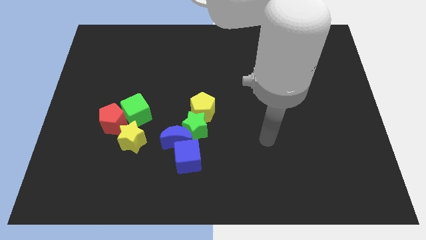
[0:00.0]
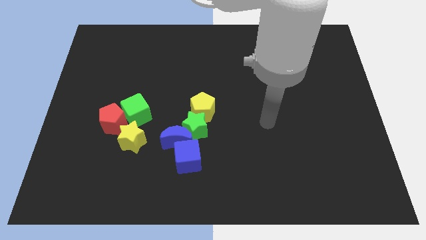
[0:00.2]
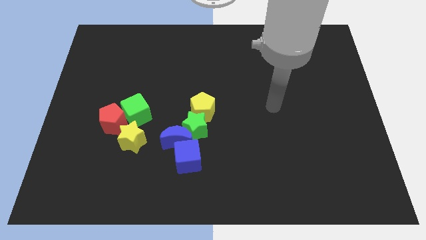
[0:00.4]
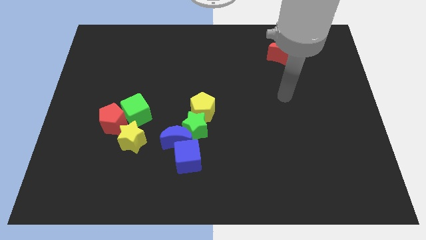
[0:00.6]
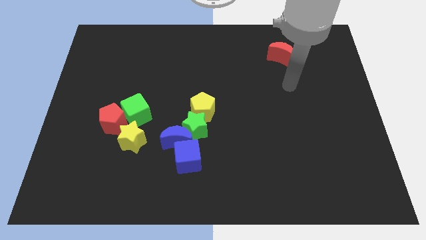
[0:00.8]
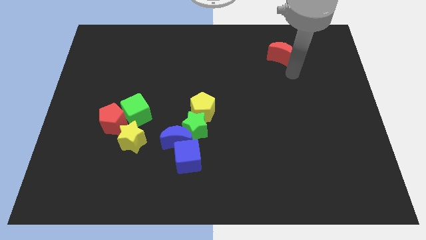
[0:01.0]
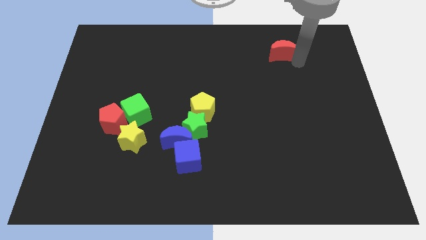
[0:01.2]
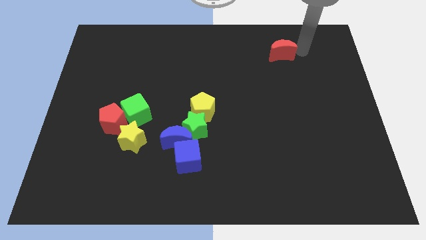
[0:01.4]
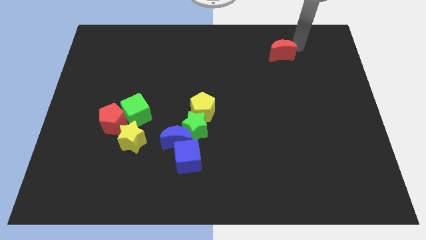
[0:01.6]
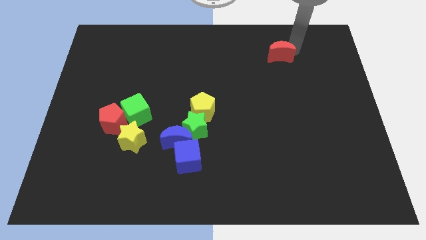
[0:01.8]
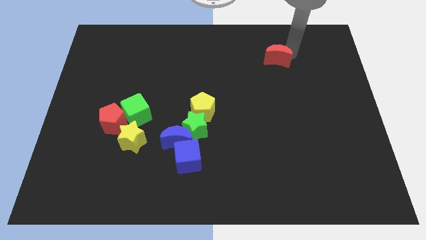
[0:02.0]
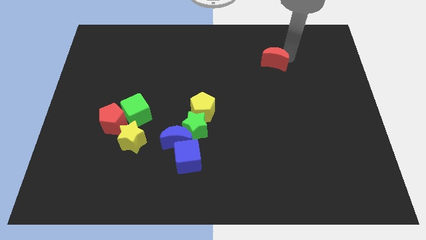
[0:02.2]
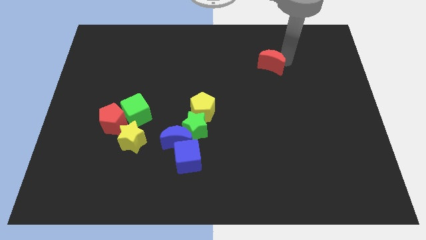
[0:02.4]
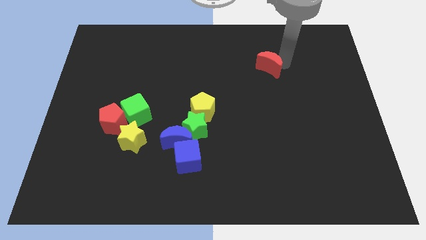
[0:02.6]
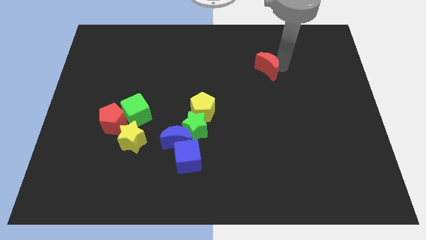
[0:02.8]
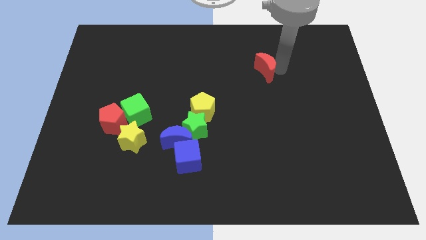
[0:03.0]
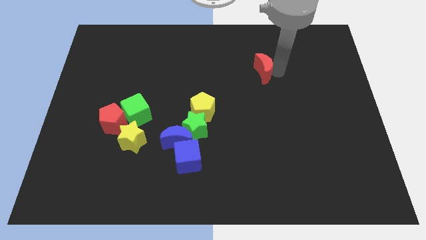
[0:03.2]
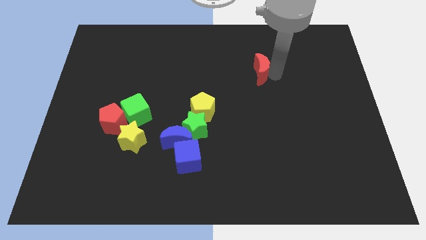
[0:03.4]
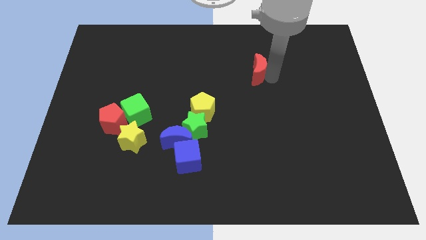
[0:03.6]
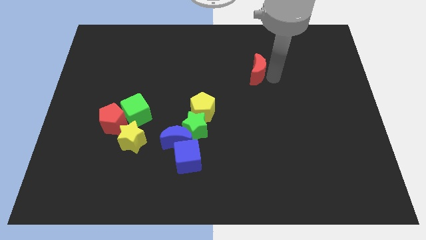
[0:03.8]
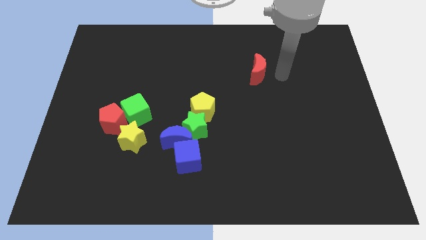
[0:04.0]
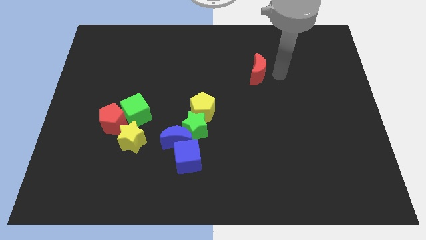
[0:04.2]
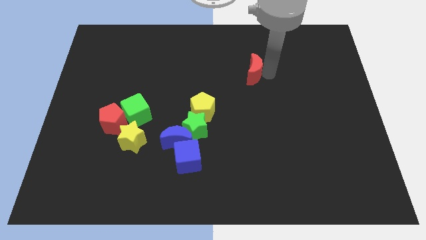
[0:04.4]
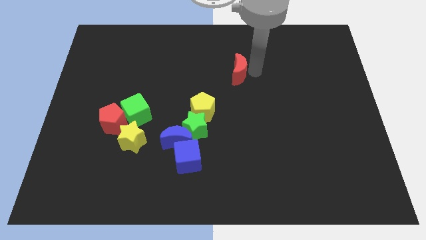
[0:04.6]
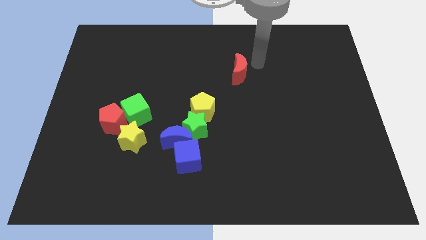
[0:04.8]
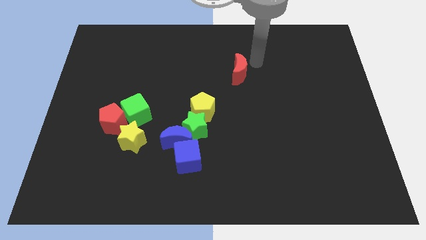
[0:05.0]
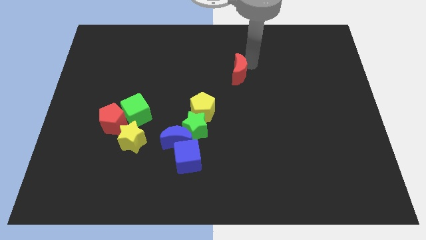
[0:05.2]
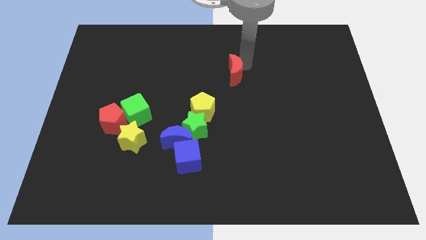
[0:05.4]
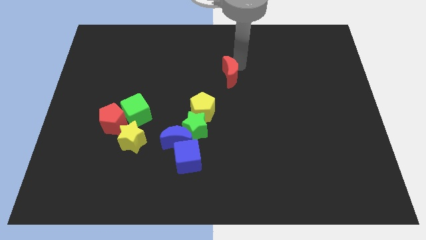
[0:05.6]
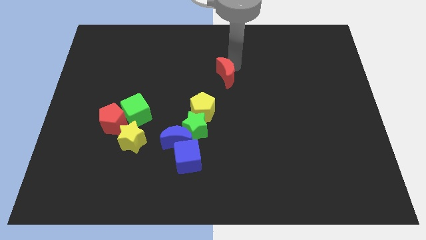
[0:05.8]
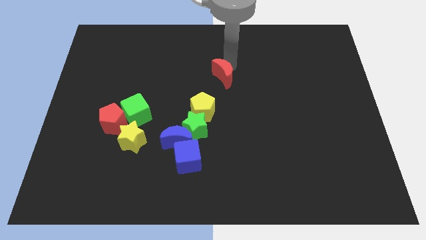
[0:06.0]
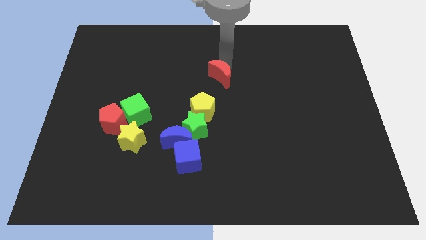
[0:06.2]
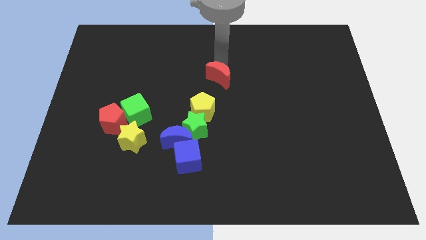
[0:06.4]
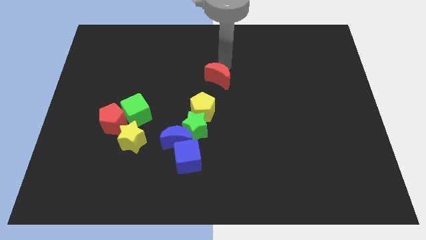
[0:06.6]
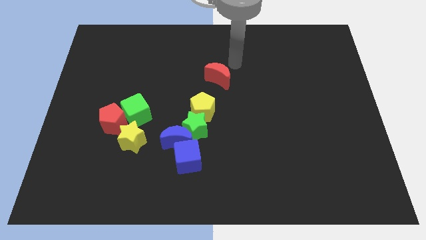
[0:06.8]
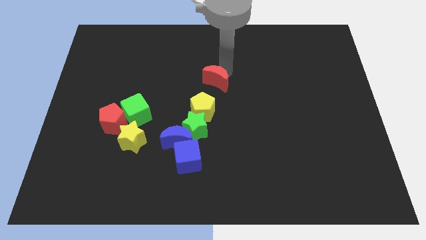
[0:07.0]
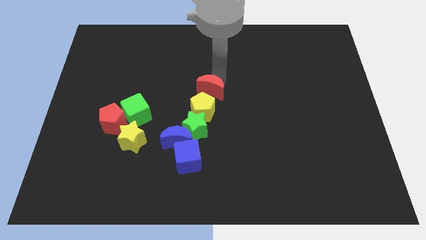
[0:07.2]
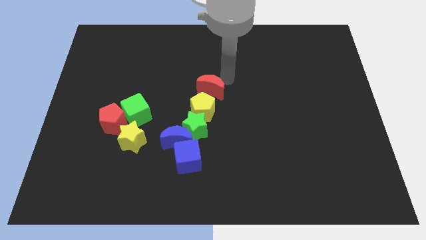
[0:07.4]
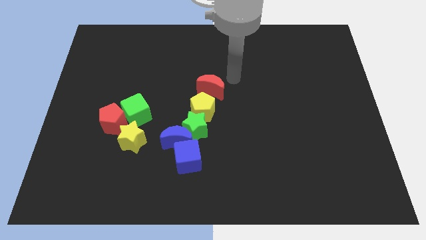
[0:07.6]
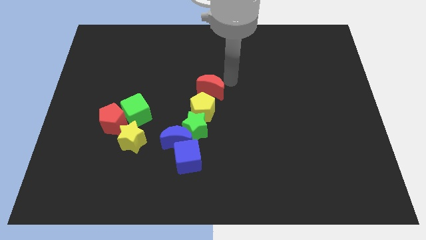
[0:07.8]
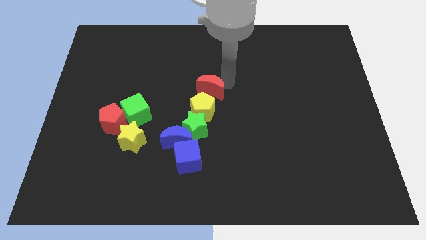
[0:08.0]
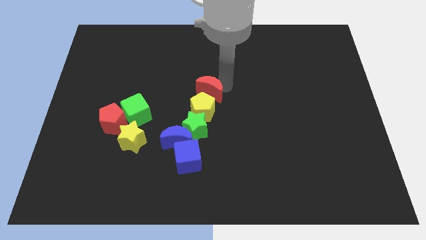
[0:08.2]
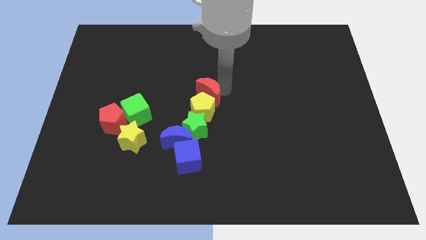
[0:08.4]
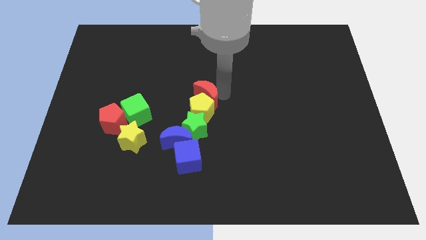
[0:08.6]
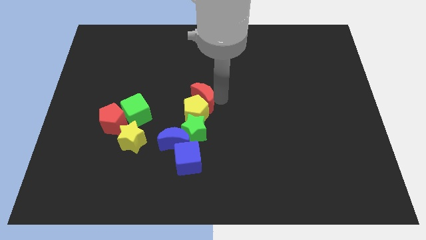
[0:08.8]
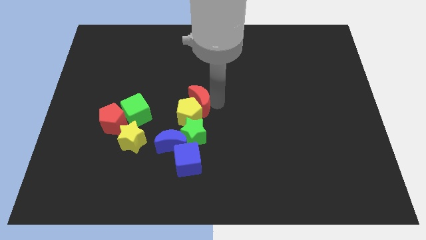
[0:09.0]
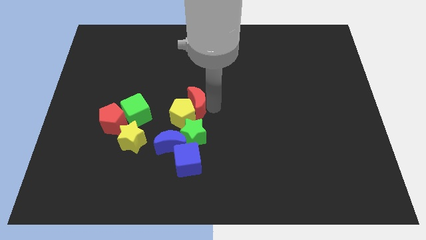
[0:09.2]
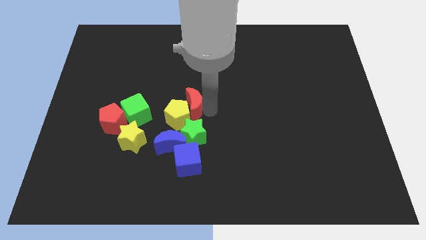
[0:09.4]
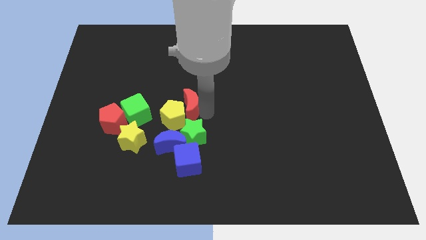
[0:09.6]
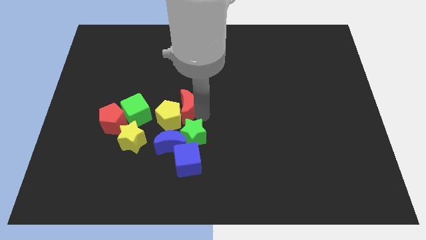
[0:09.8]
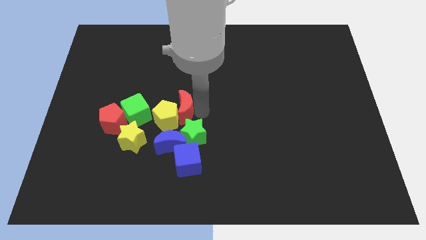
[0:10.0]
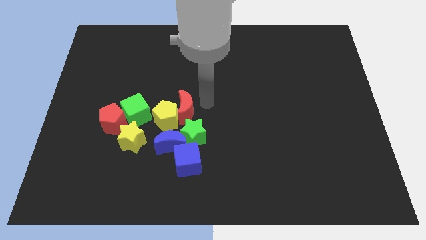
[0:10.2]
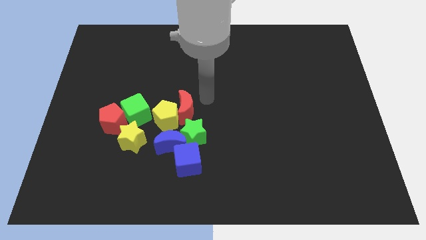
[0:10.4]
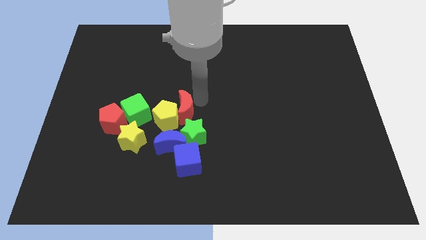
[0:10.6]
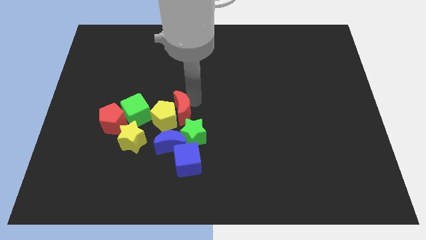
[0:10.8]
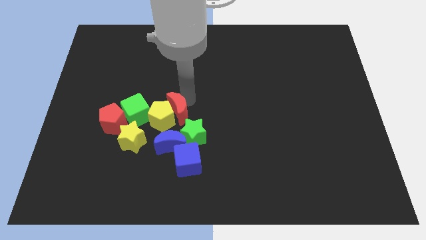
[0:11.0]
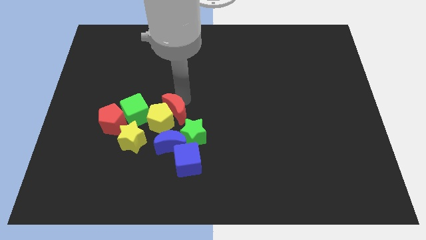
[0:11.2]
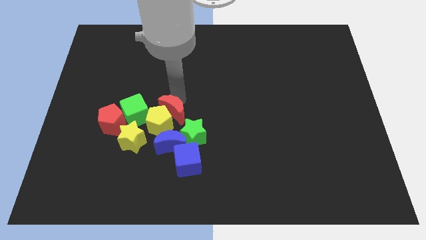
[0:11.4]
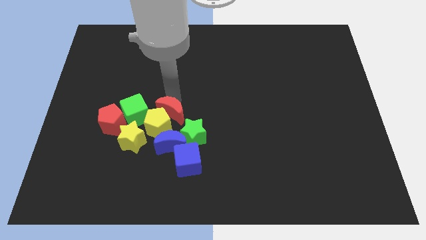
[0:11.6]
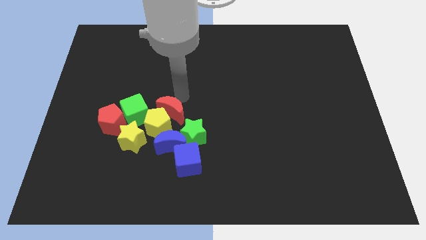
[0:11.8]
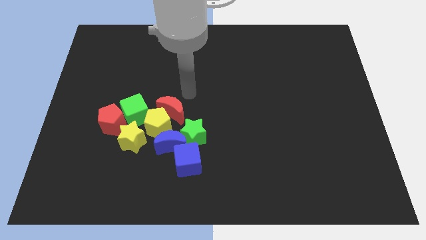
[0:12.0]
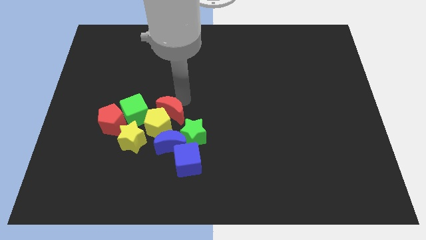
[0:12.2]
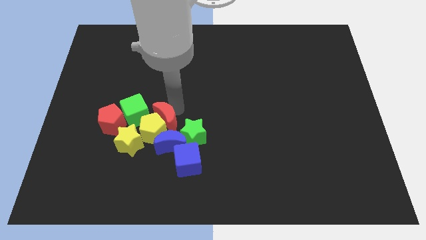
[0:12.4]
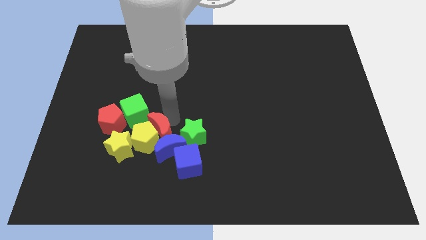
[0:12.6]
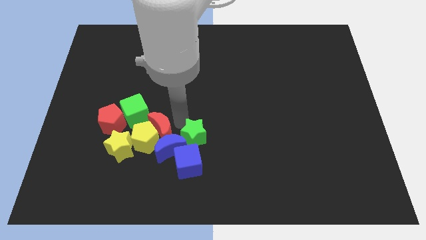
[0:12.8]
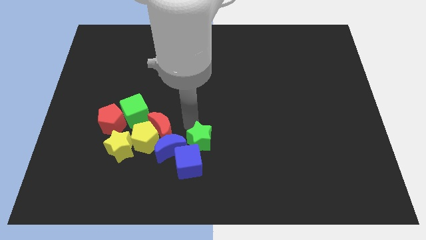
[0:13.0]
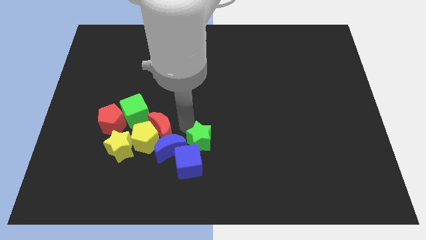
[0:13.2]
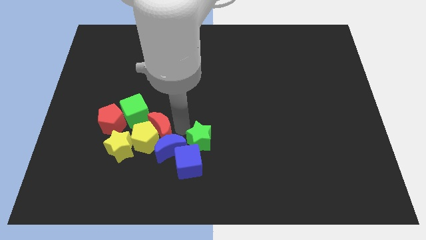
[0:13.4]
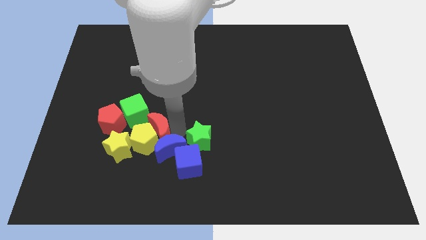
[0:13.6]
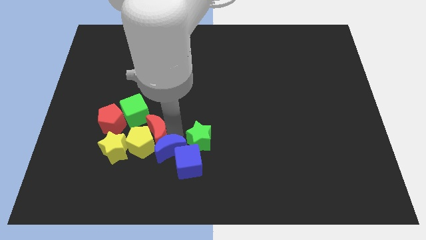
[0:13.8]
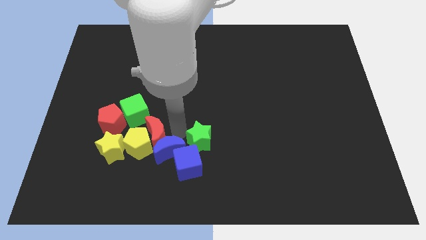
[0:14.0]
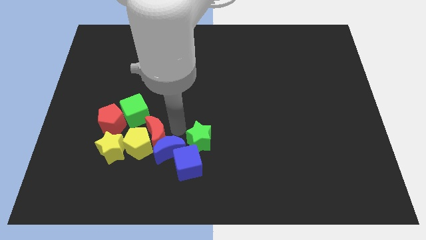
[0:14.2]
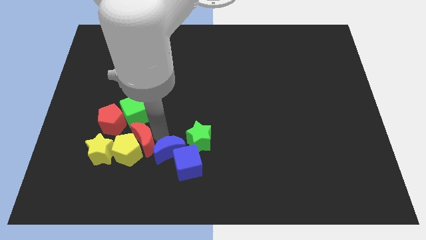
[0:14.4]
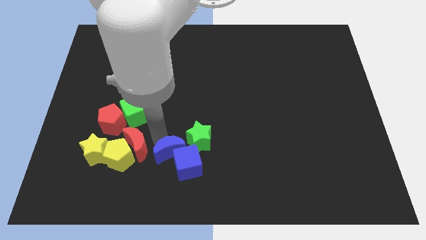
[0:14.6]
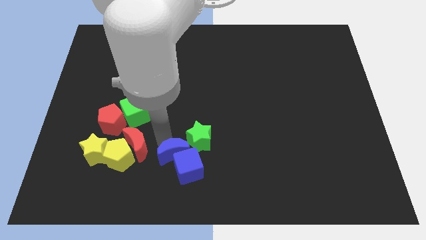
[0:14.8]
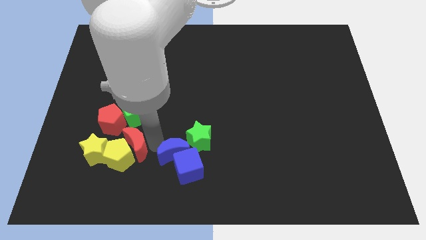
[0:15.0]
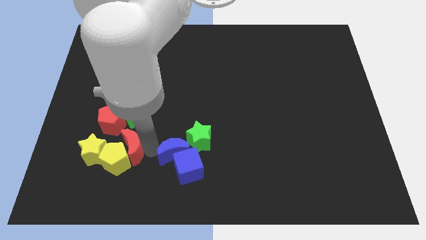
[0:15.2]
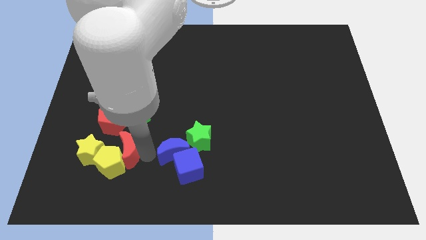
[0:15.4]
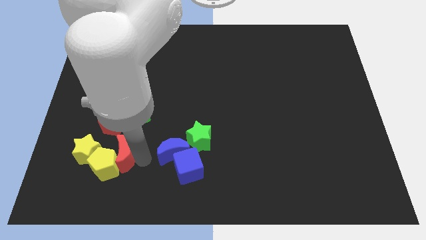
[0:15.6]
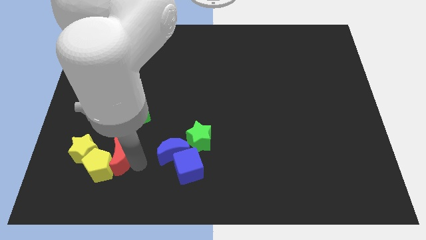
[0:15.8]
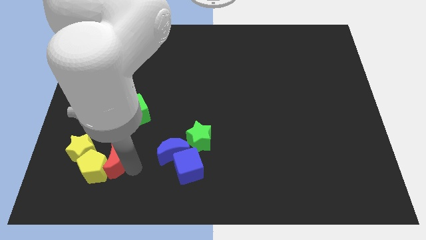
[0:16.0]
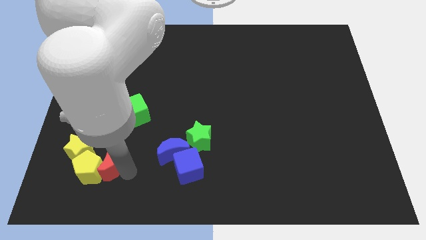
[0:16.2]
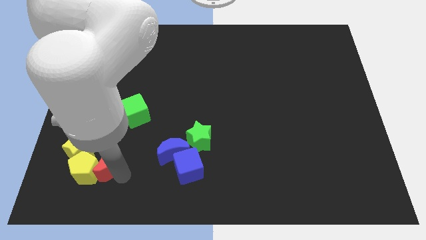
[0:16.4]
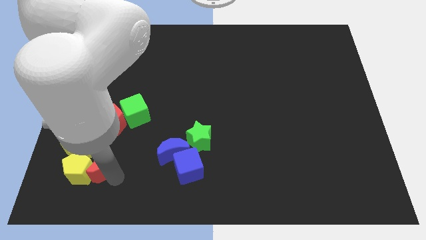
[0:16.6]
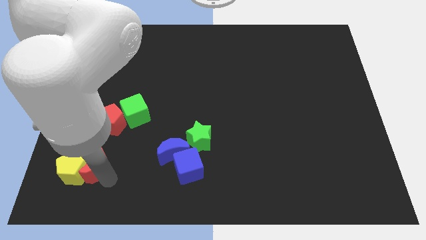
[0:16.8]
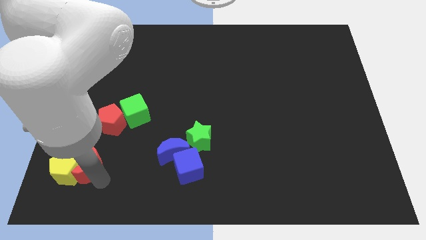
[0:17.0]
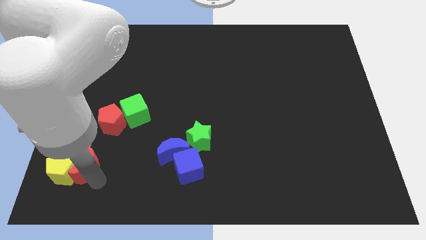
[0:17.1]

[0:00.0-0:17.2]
slide the red moon close to the yellow star
